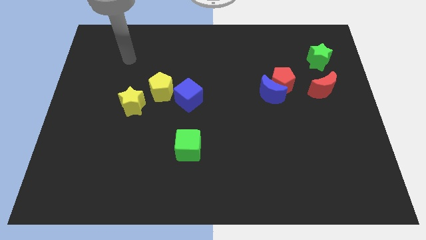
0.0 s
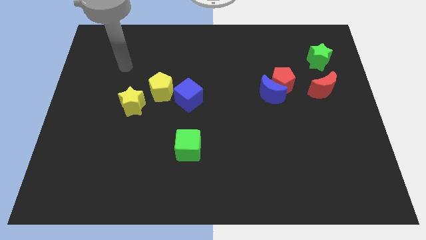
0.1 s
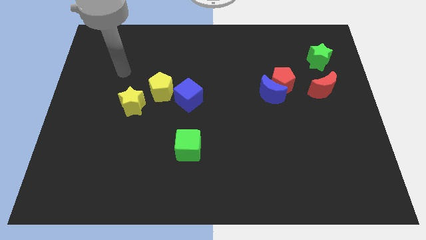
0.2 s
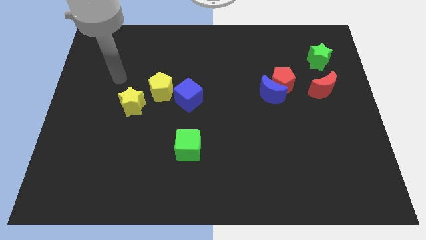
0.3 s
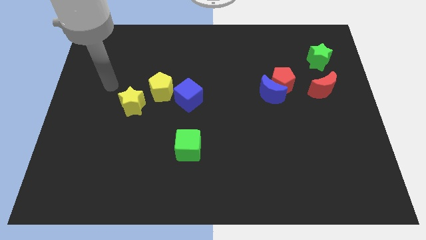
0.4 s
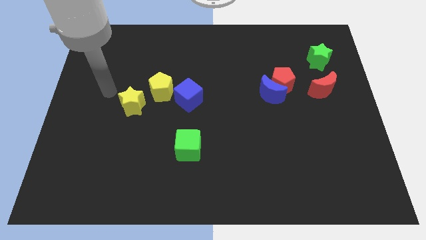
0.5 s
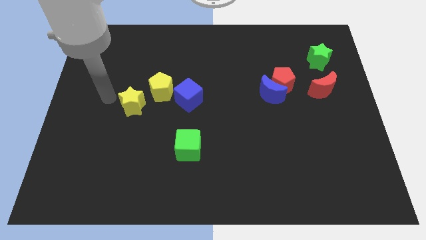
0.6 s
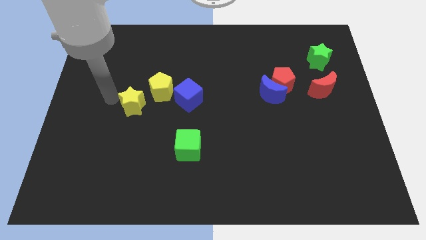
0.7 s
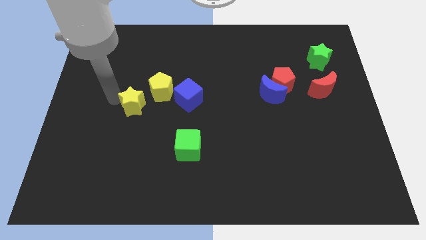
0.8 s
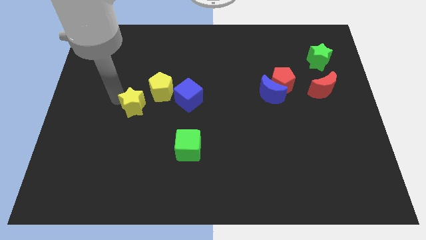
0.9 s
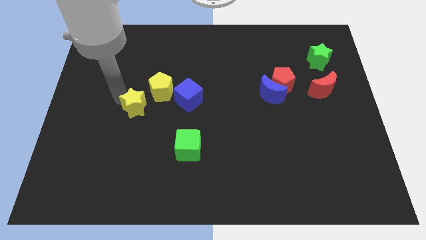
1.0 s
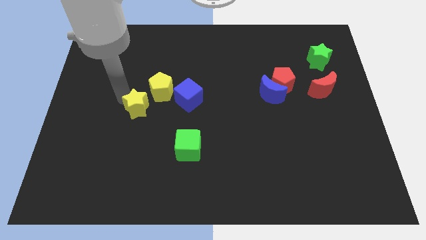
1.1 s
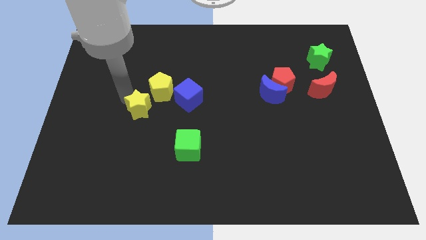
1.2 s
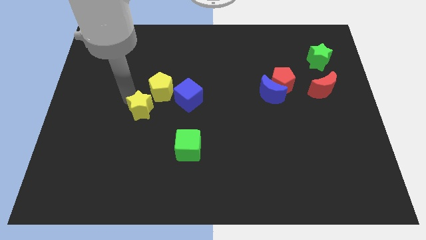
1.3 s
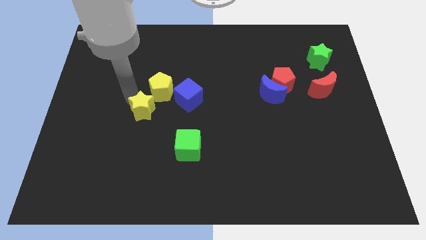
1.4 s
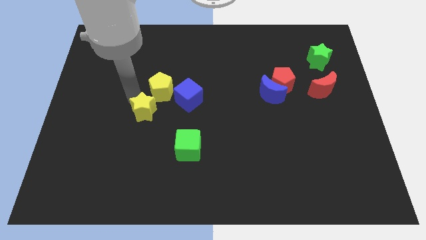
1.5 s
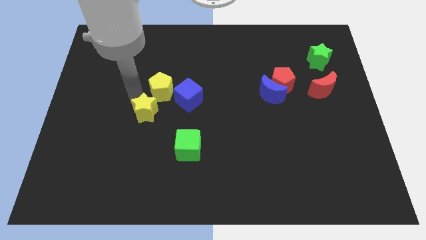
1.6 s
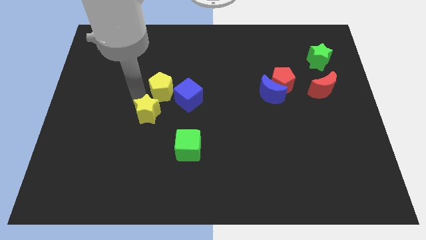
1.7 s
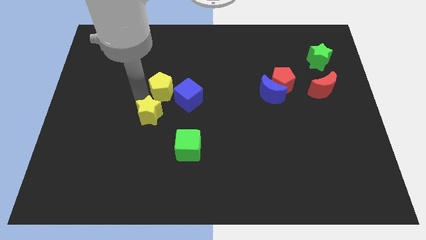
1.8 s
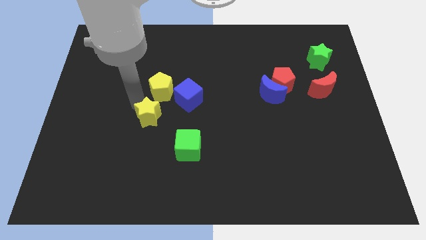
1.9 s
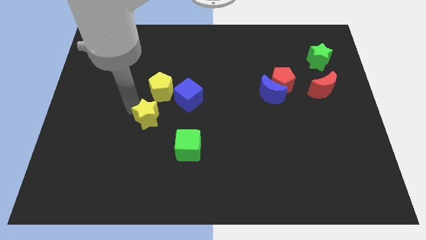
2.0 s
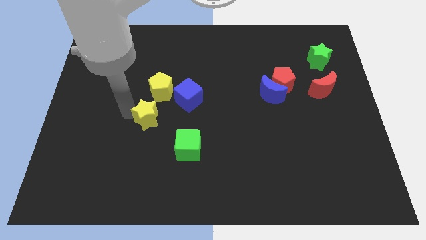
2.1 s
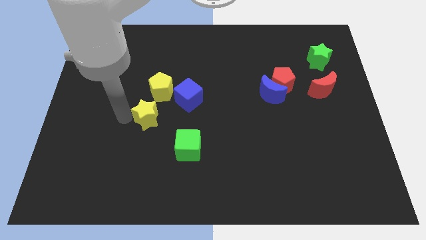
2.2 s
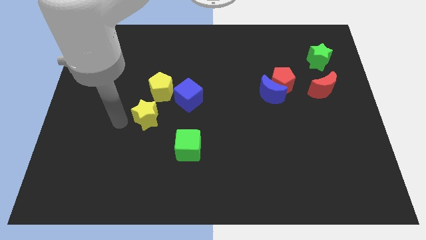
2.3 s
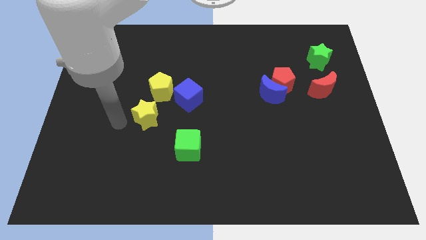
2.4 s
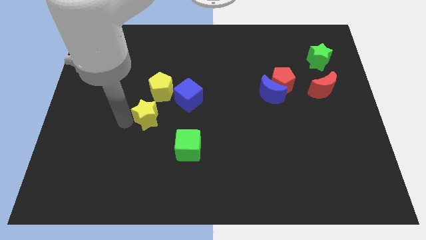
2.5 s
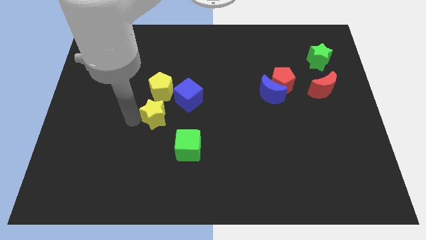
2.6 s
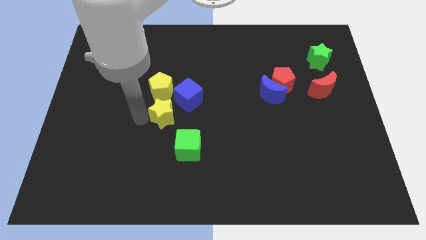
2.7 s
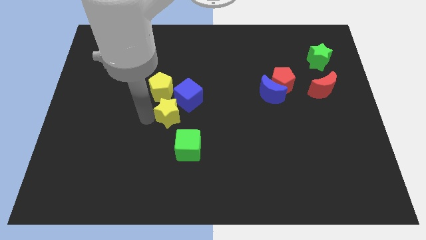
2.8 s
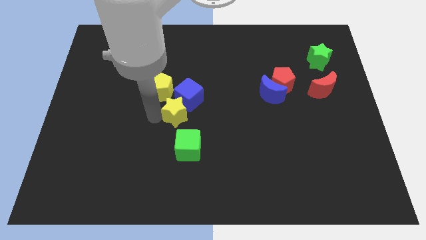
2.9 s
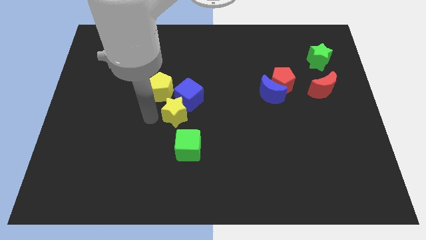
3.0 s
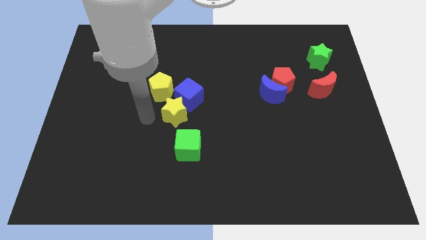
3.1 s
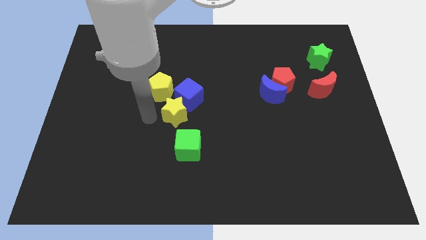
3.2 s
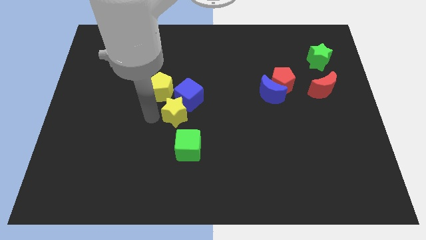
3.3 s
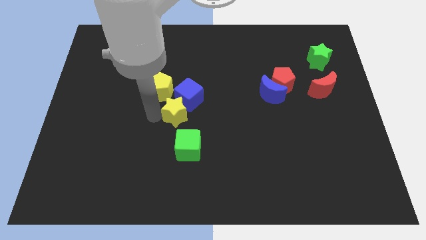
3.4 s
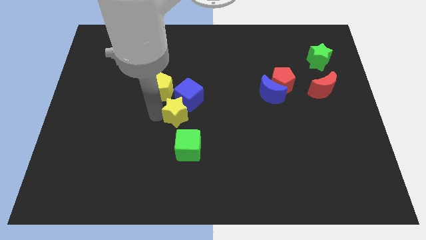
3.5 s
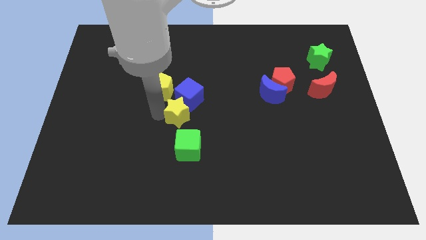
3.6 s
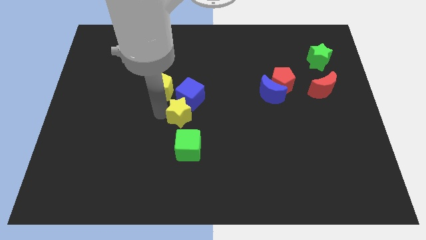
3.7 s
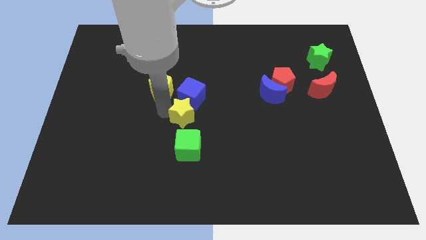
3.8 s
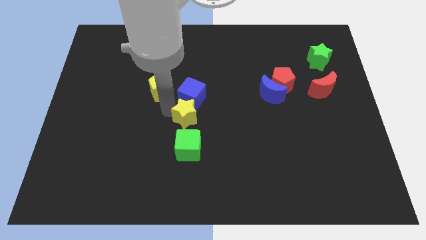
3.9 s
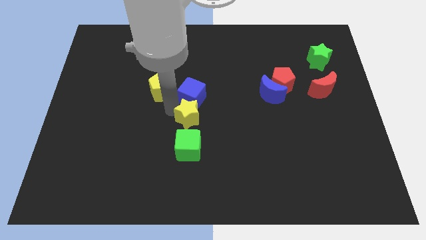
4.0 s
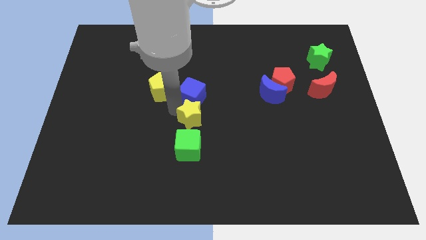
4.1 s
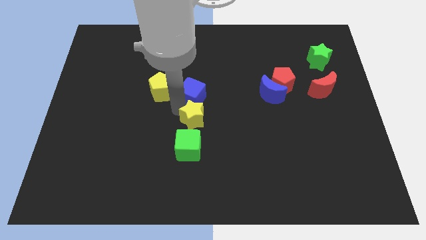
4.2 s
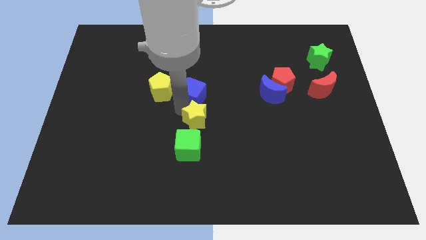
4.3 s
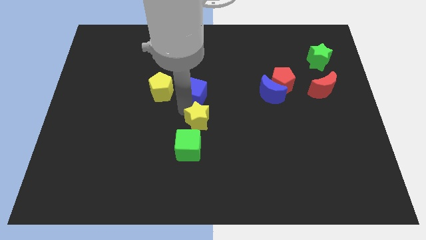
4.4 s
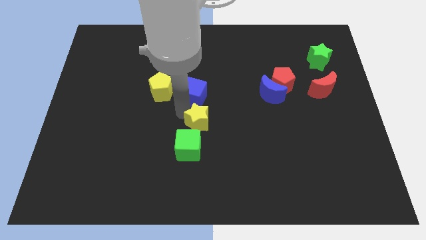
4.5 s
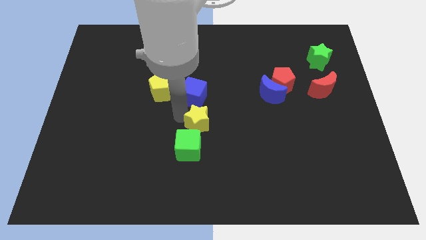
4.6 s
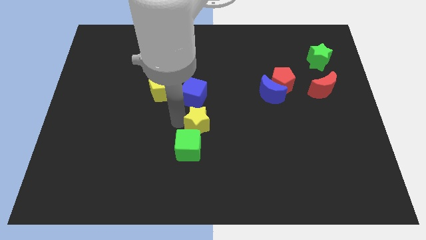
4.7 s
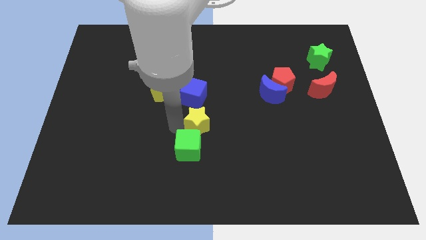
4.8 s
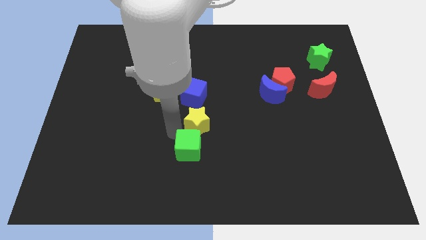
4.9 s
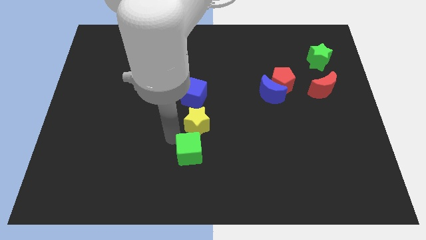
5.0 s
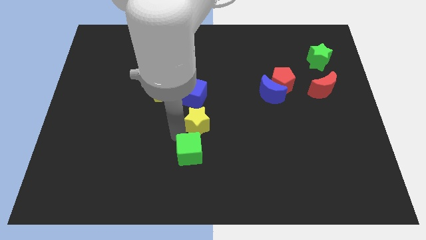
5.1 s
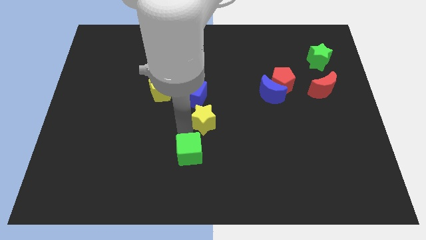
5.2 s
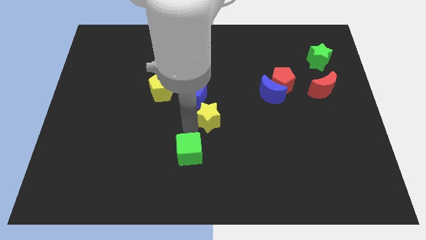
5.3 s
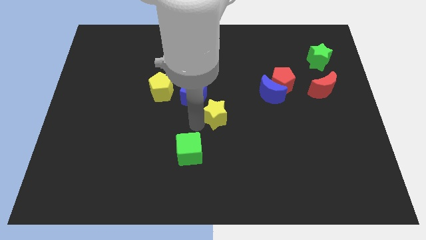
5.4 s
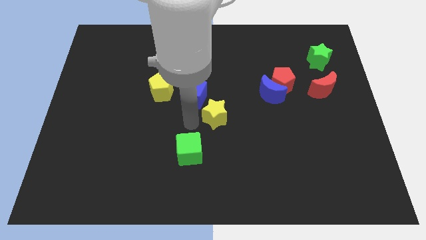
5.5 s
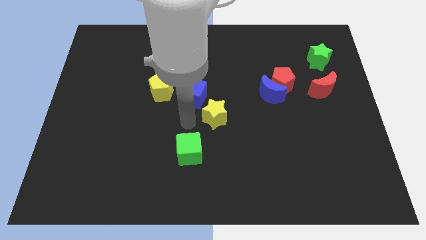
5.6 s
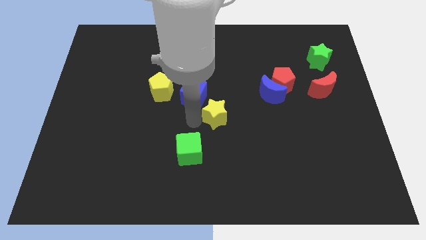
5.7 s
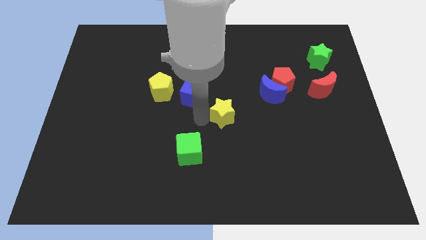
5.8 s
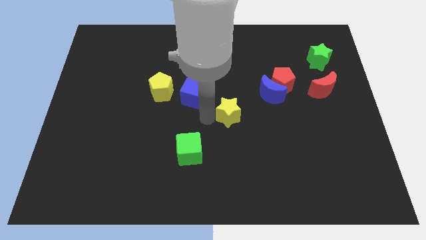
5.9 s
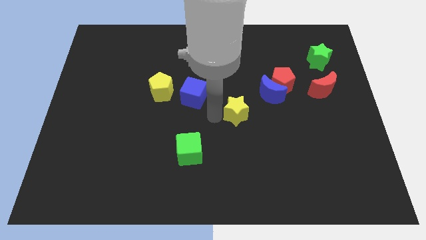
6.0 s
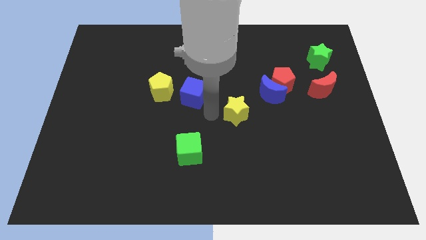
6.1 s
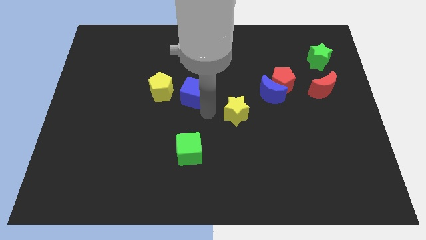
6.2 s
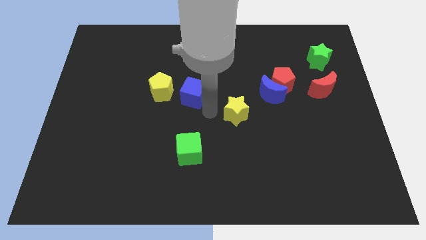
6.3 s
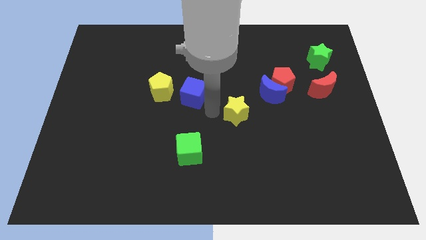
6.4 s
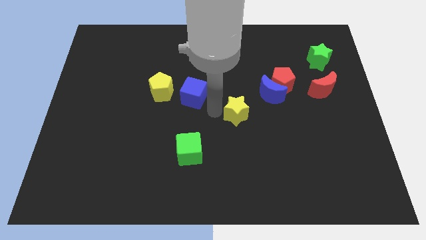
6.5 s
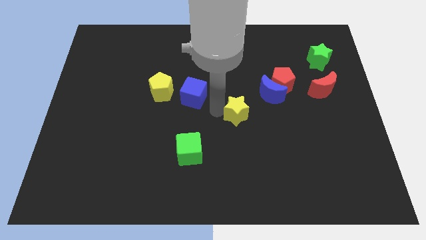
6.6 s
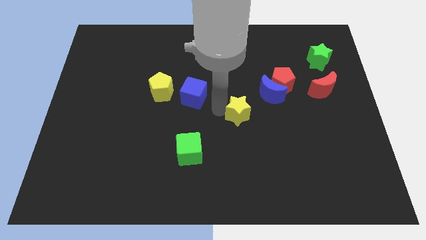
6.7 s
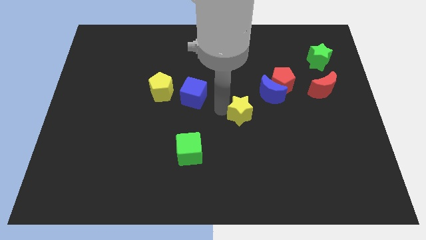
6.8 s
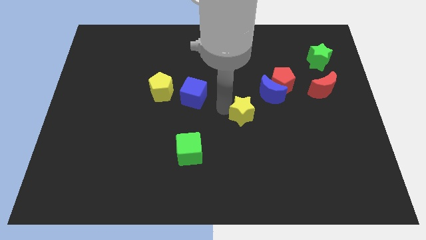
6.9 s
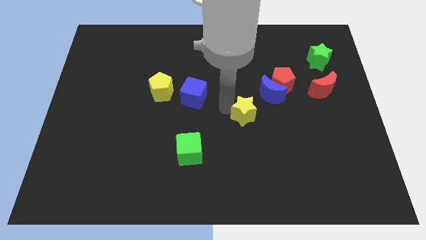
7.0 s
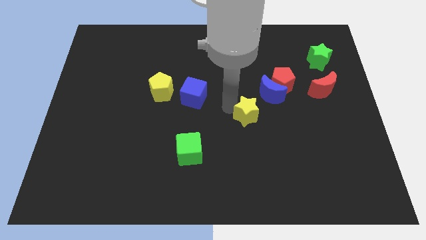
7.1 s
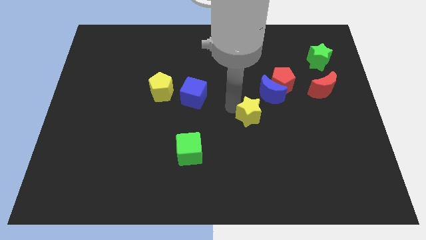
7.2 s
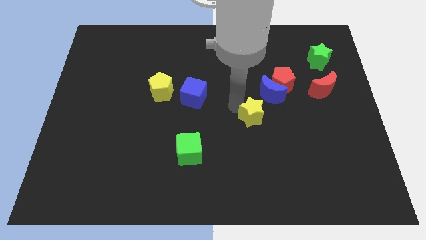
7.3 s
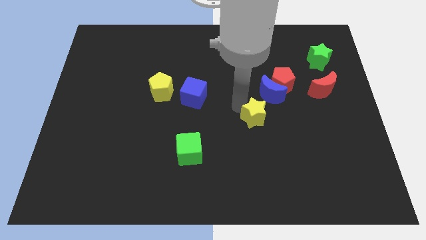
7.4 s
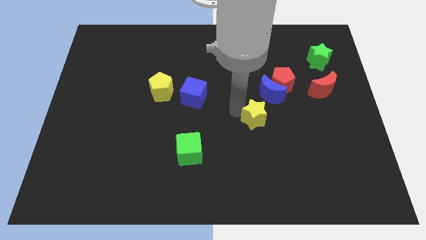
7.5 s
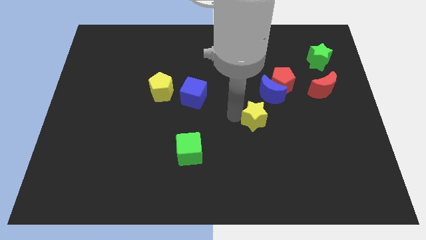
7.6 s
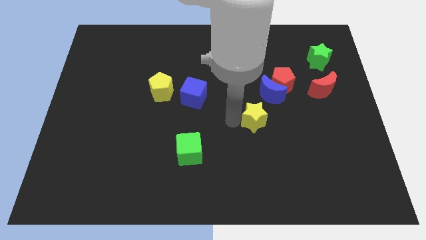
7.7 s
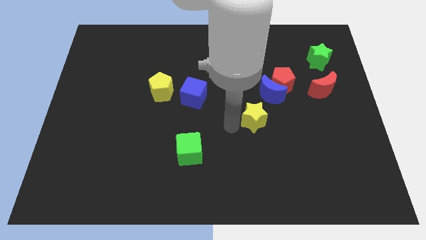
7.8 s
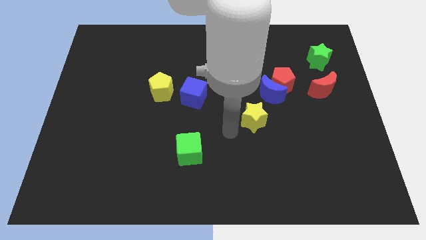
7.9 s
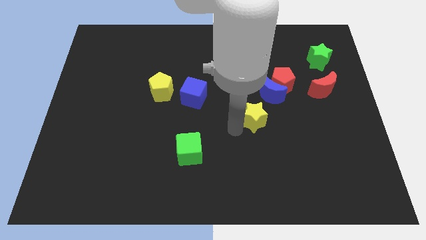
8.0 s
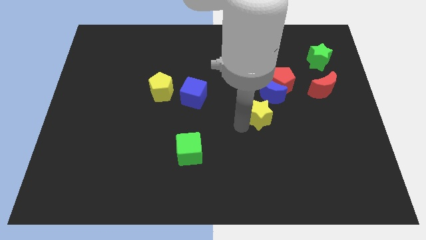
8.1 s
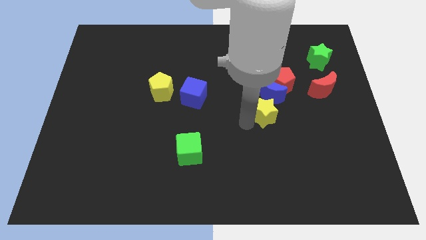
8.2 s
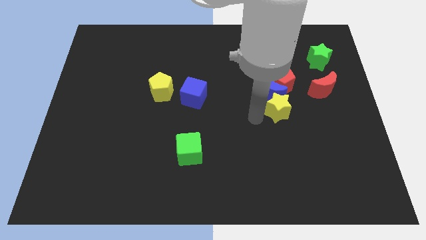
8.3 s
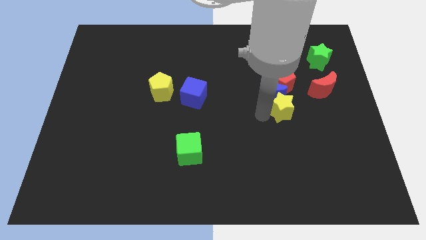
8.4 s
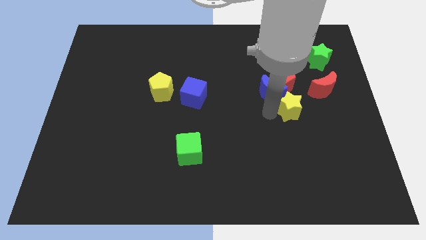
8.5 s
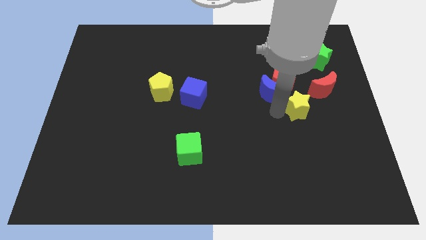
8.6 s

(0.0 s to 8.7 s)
move the yellow star to the bottom right side of the red pentagon
